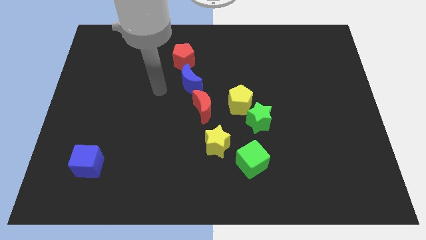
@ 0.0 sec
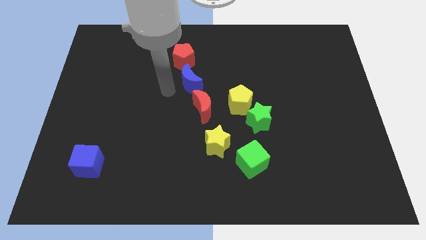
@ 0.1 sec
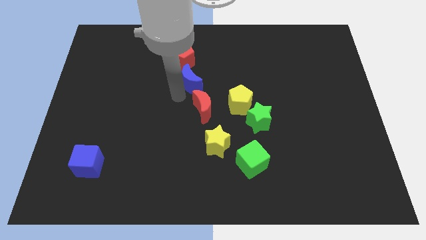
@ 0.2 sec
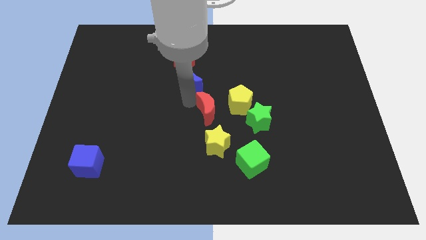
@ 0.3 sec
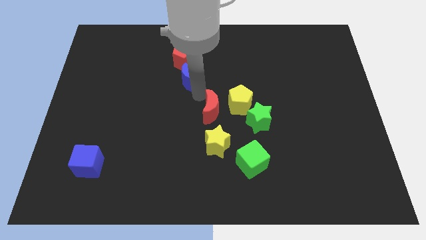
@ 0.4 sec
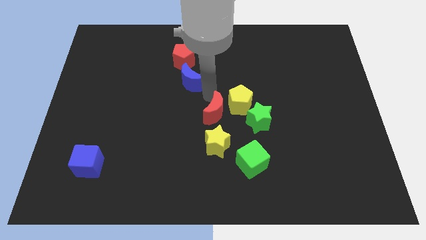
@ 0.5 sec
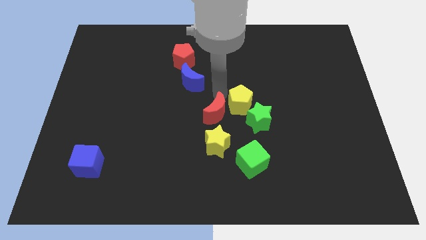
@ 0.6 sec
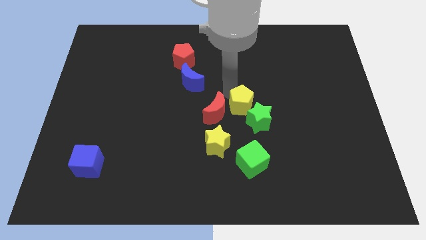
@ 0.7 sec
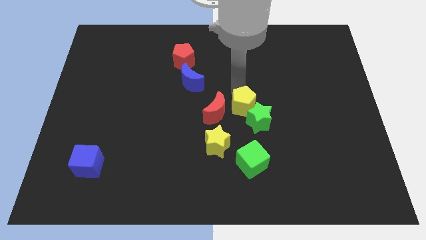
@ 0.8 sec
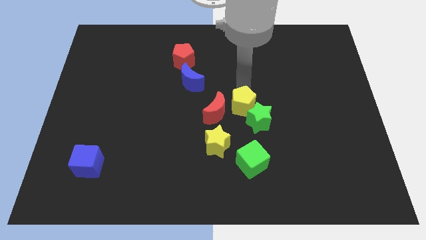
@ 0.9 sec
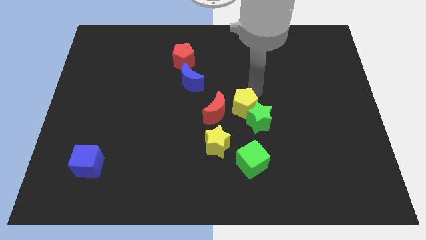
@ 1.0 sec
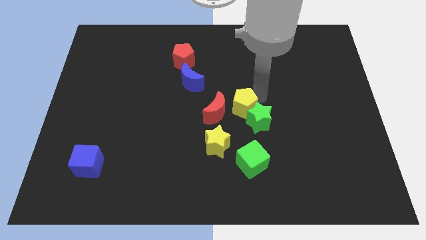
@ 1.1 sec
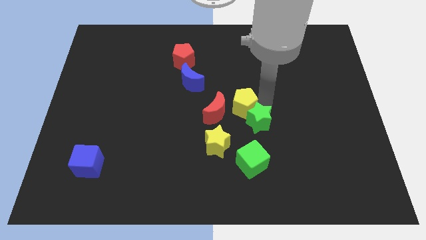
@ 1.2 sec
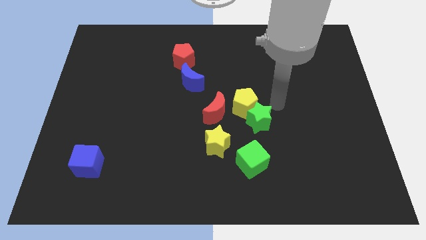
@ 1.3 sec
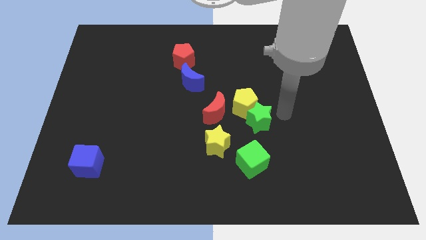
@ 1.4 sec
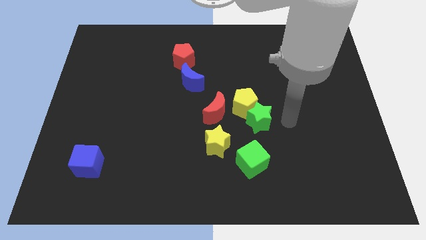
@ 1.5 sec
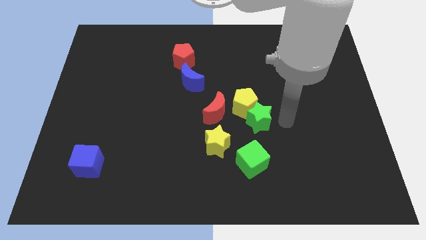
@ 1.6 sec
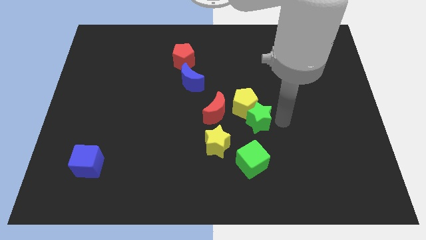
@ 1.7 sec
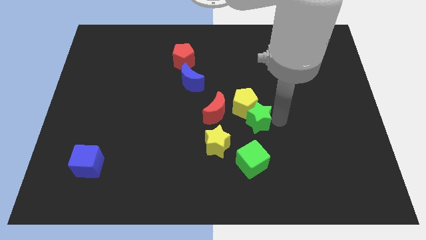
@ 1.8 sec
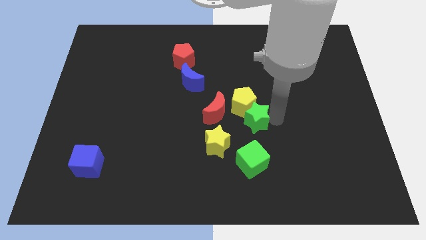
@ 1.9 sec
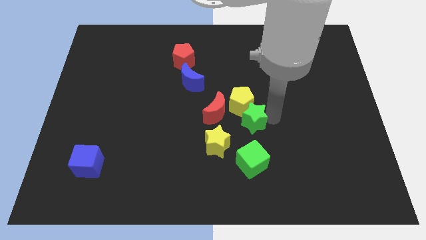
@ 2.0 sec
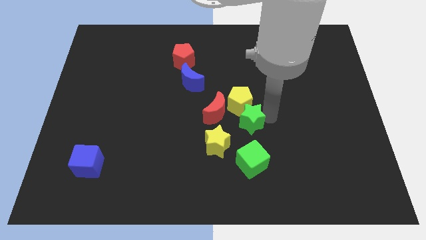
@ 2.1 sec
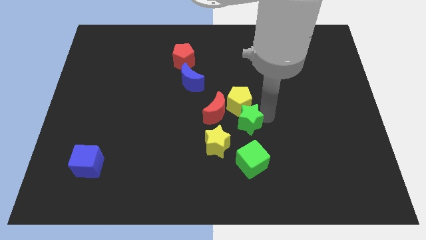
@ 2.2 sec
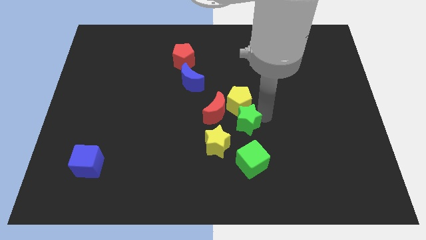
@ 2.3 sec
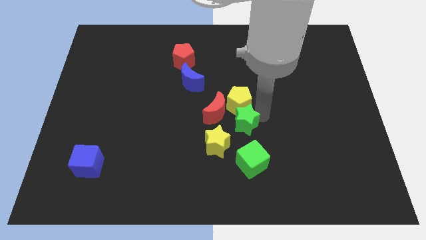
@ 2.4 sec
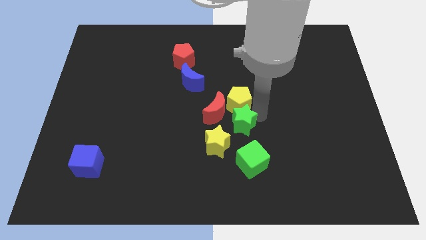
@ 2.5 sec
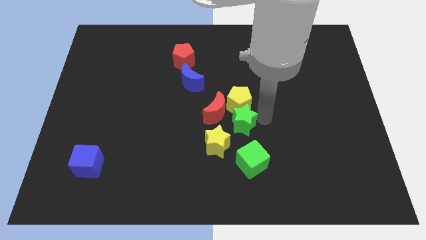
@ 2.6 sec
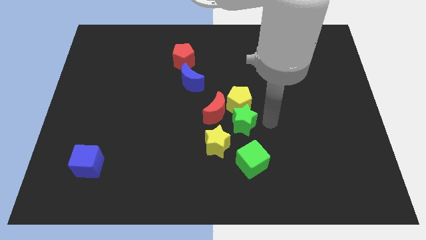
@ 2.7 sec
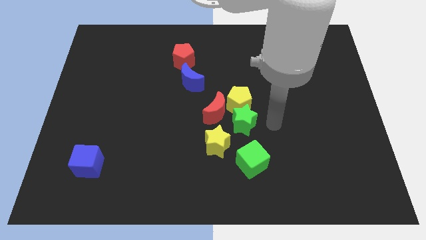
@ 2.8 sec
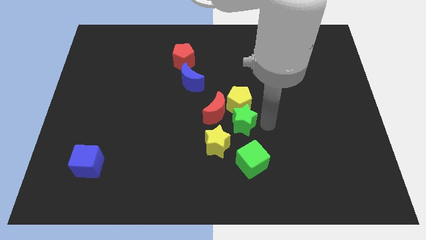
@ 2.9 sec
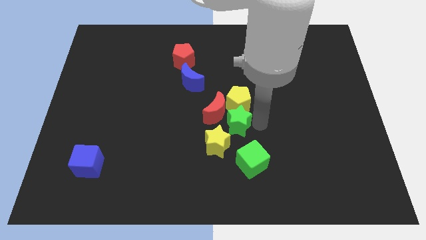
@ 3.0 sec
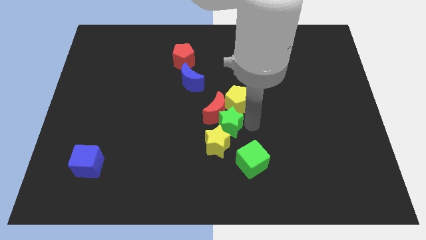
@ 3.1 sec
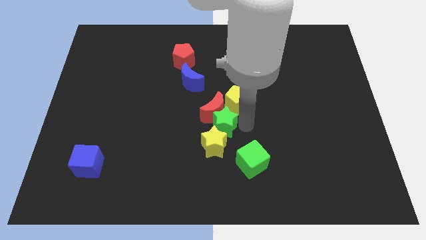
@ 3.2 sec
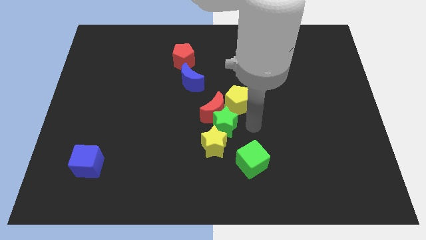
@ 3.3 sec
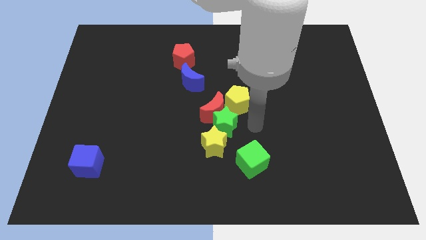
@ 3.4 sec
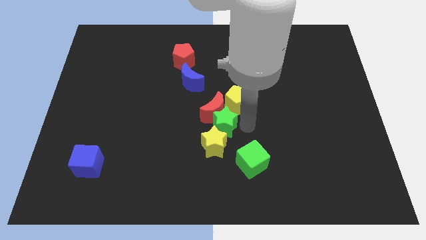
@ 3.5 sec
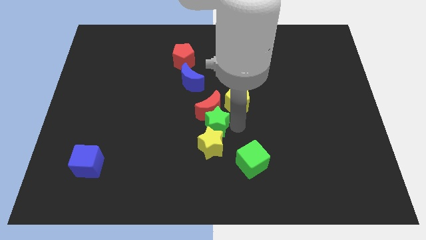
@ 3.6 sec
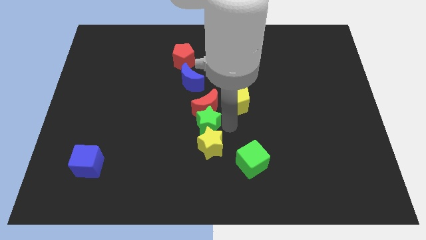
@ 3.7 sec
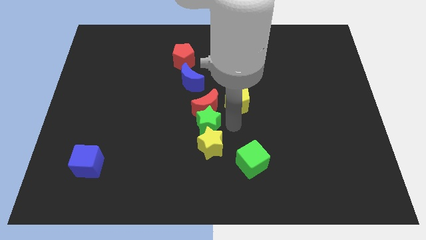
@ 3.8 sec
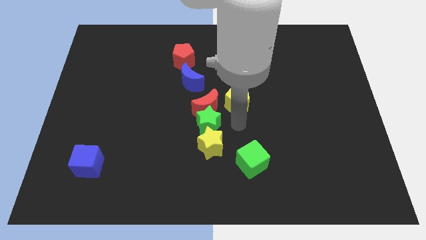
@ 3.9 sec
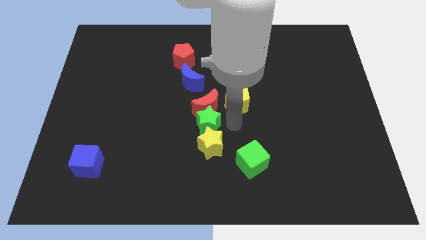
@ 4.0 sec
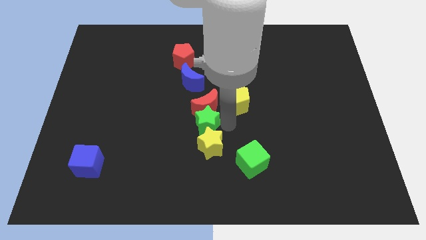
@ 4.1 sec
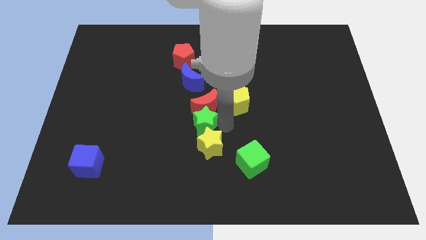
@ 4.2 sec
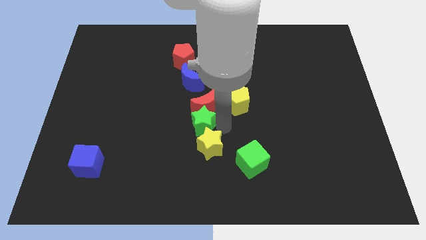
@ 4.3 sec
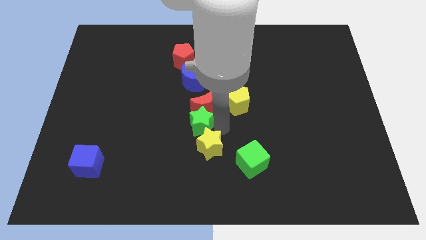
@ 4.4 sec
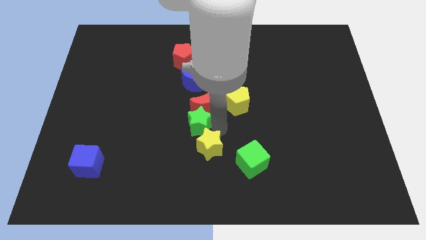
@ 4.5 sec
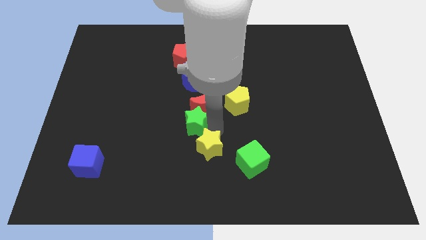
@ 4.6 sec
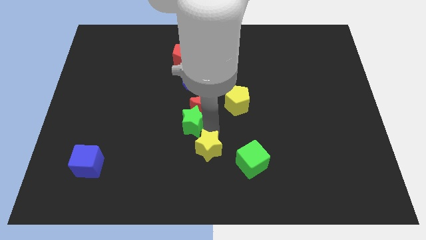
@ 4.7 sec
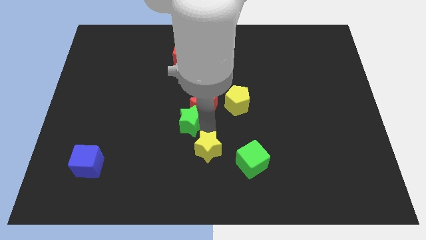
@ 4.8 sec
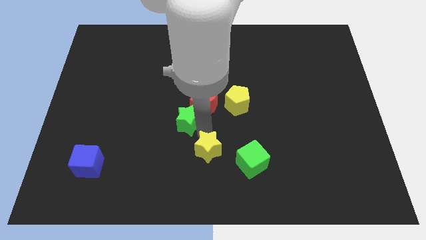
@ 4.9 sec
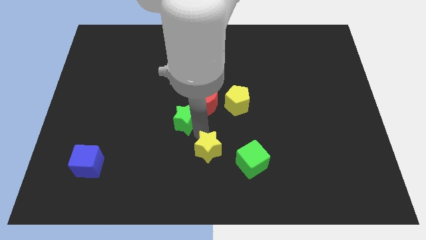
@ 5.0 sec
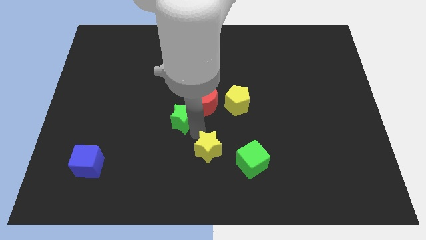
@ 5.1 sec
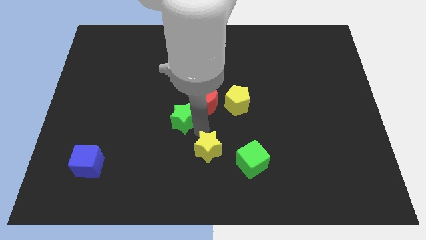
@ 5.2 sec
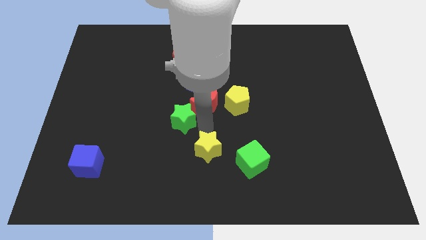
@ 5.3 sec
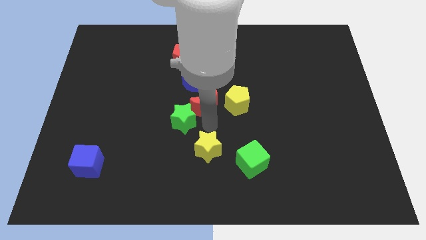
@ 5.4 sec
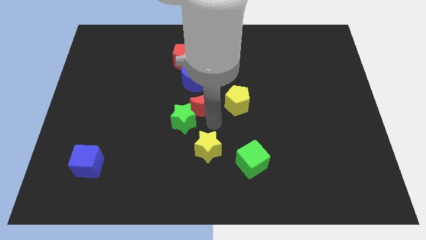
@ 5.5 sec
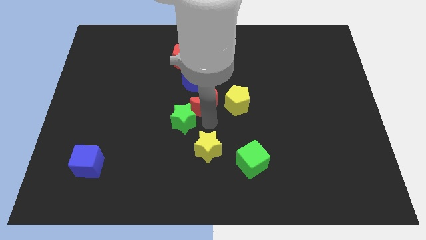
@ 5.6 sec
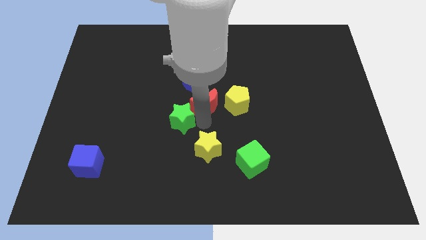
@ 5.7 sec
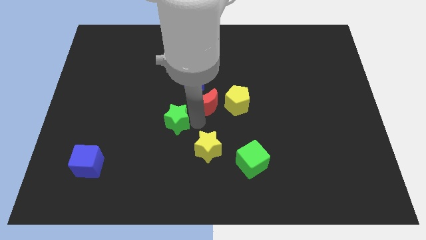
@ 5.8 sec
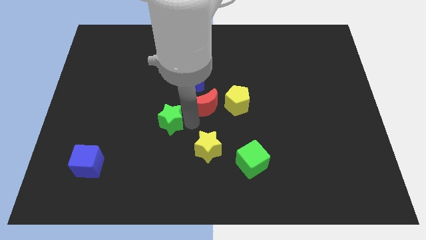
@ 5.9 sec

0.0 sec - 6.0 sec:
move the green star left

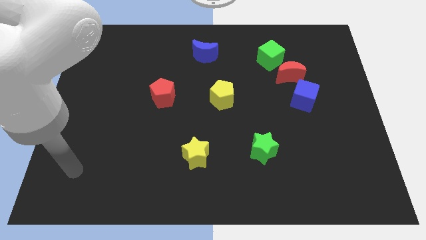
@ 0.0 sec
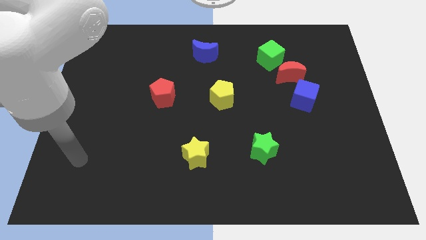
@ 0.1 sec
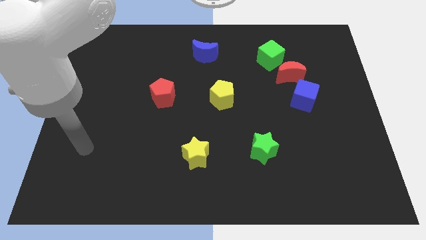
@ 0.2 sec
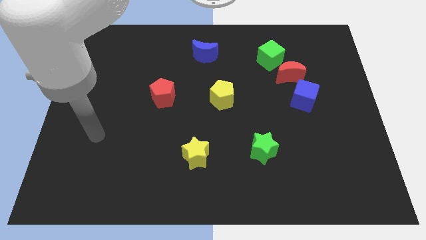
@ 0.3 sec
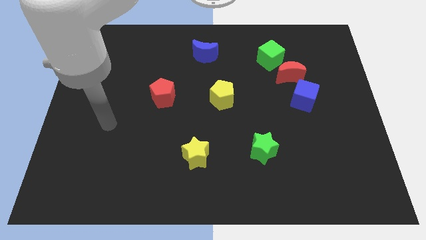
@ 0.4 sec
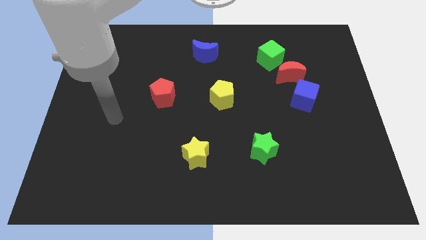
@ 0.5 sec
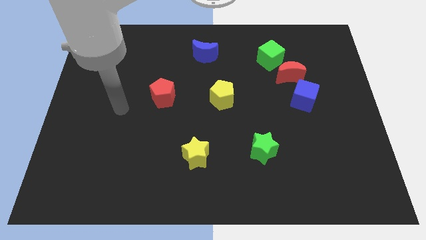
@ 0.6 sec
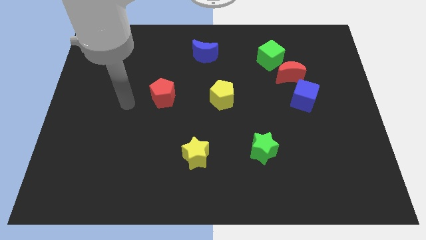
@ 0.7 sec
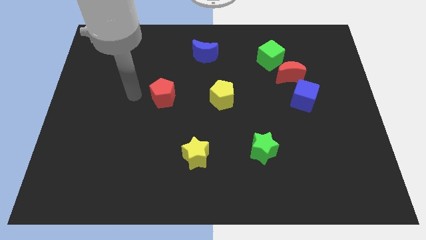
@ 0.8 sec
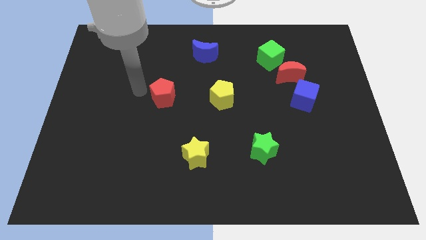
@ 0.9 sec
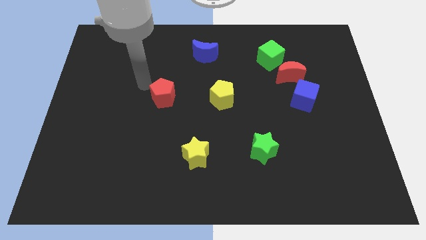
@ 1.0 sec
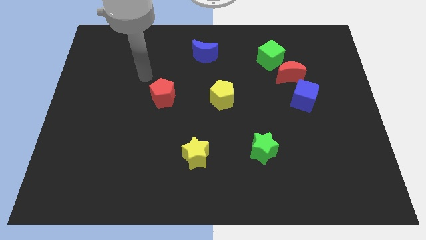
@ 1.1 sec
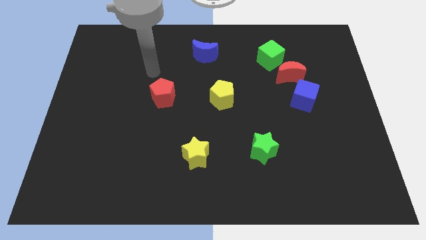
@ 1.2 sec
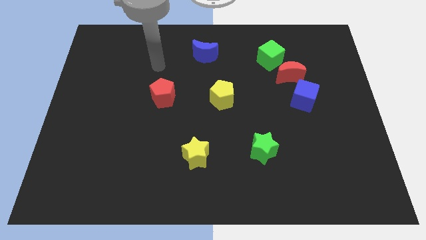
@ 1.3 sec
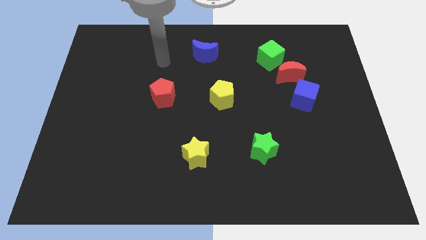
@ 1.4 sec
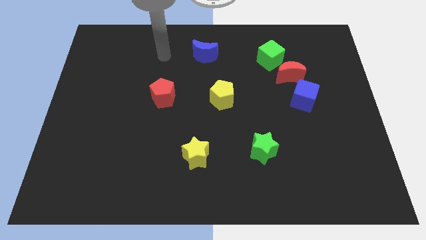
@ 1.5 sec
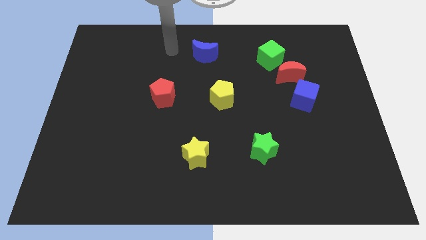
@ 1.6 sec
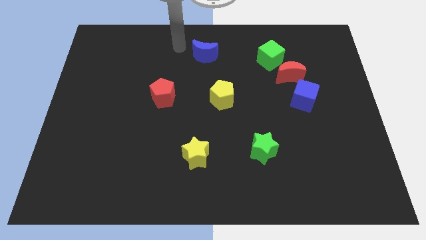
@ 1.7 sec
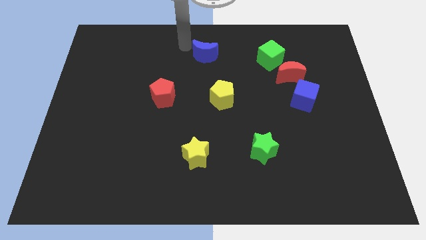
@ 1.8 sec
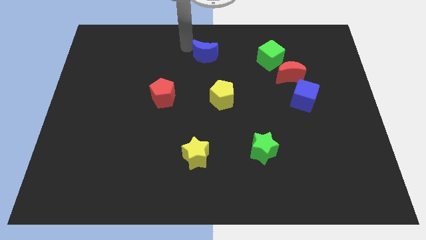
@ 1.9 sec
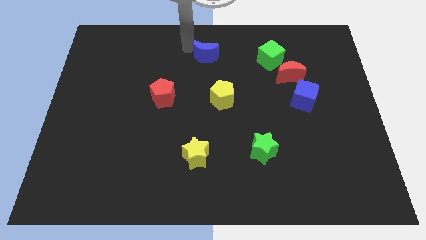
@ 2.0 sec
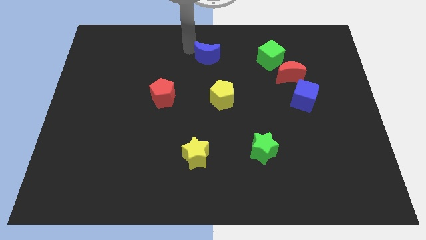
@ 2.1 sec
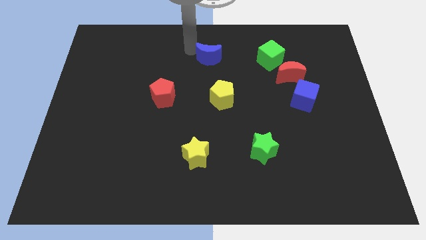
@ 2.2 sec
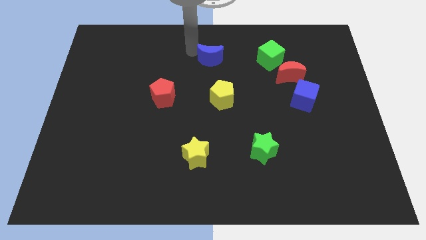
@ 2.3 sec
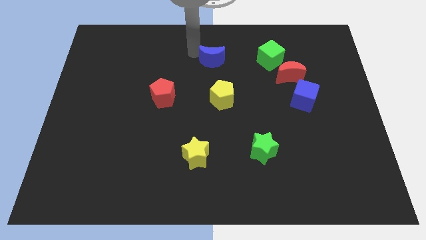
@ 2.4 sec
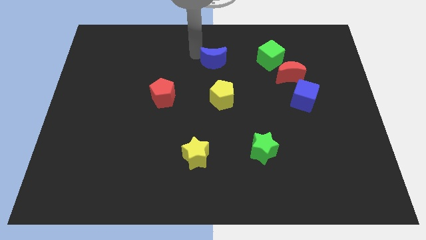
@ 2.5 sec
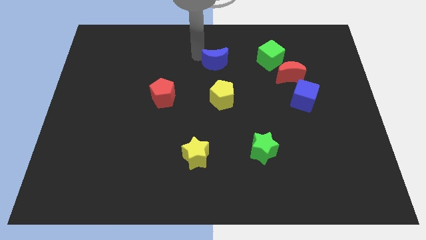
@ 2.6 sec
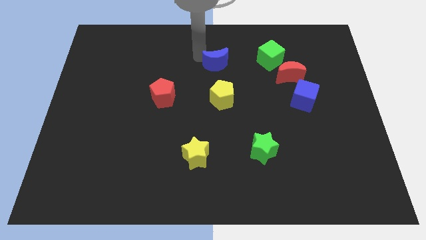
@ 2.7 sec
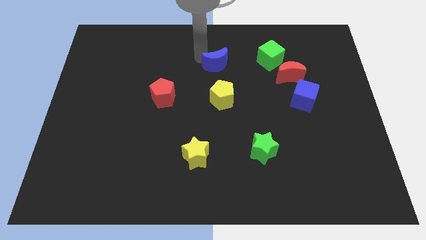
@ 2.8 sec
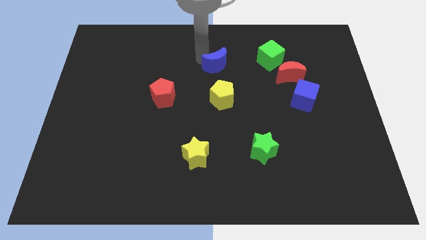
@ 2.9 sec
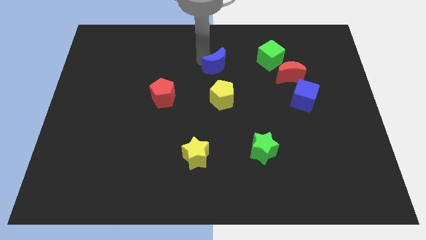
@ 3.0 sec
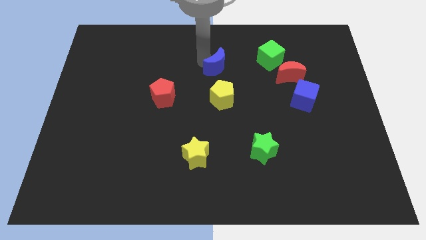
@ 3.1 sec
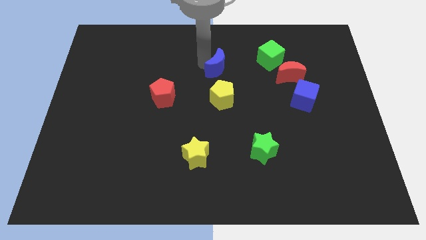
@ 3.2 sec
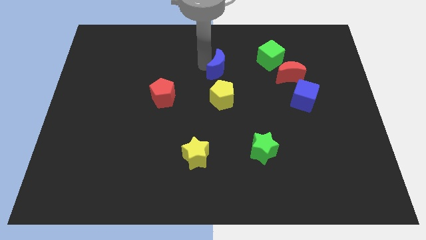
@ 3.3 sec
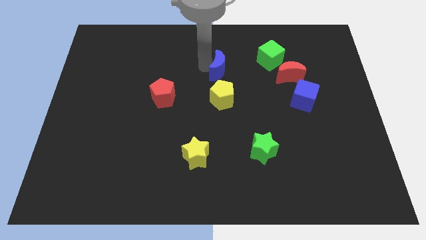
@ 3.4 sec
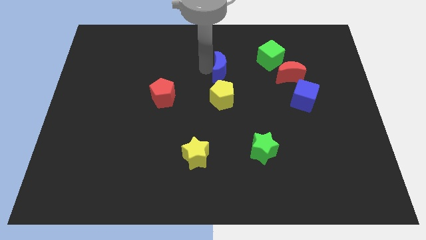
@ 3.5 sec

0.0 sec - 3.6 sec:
slightly move the blue moon downwards and to the right
